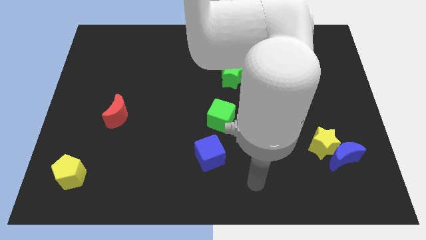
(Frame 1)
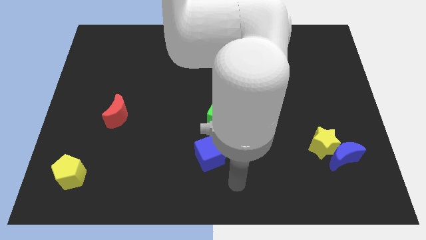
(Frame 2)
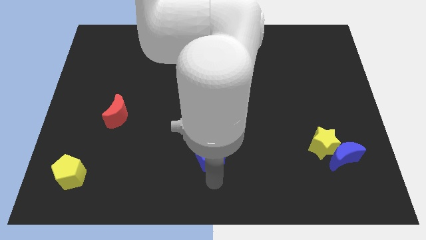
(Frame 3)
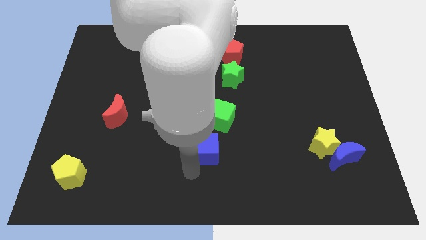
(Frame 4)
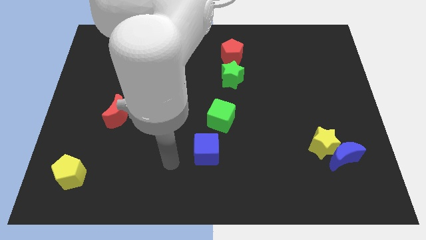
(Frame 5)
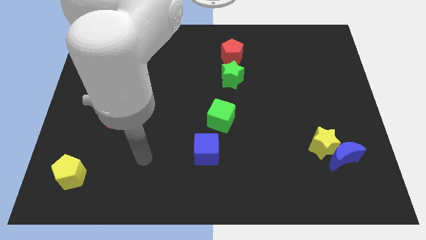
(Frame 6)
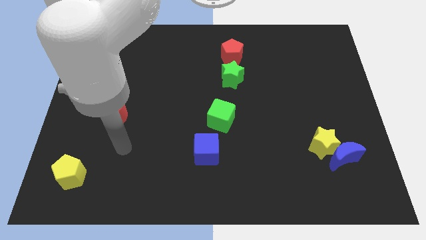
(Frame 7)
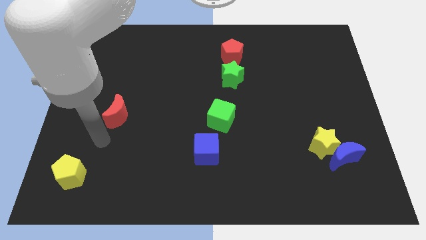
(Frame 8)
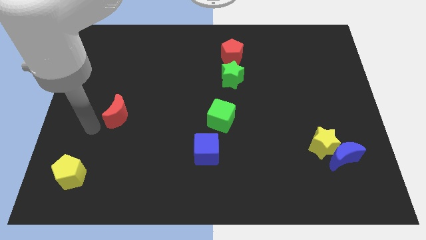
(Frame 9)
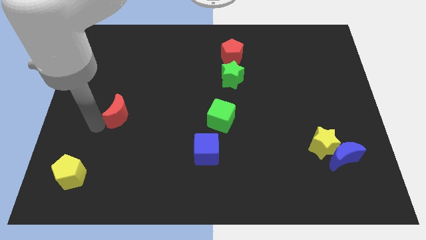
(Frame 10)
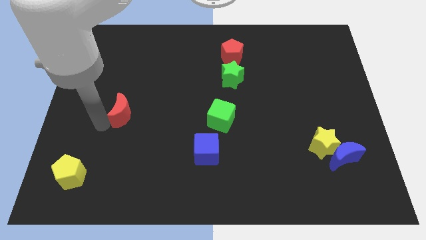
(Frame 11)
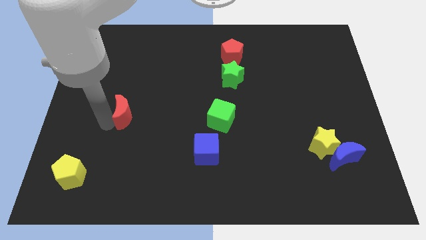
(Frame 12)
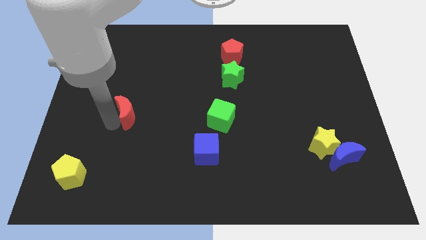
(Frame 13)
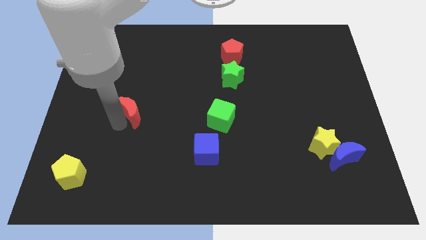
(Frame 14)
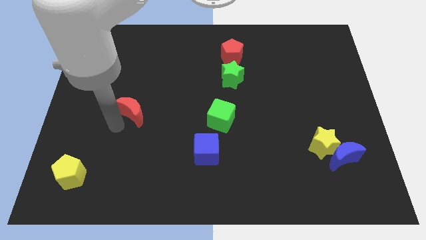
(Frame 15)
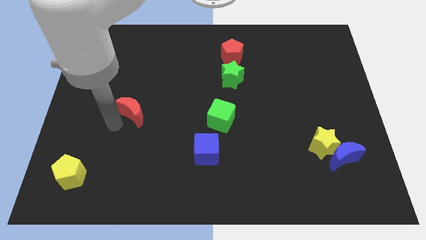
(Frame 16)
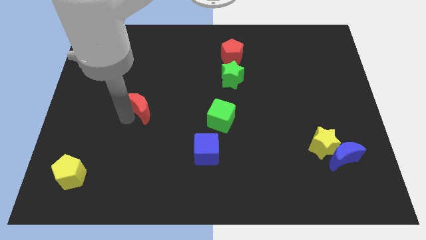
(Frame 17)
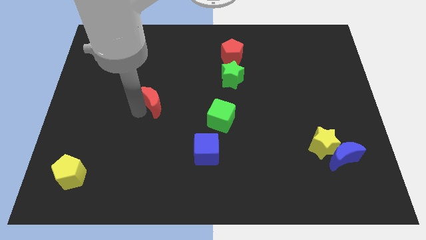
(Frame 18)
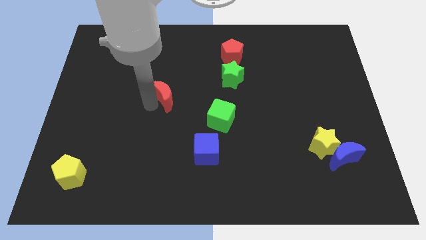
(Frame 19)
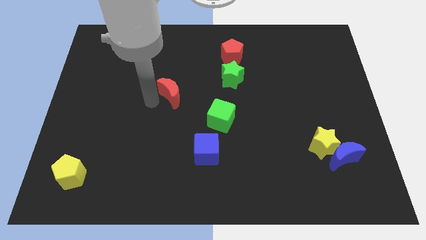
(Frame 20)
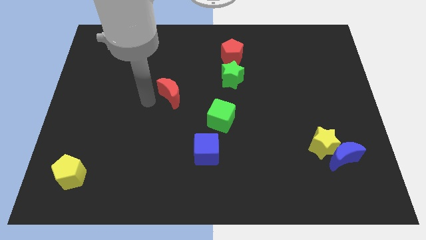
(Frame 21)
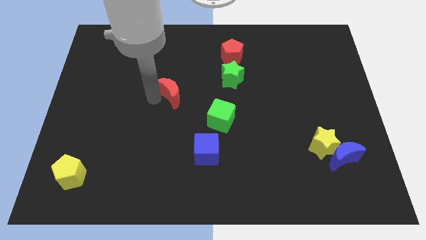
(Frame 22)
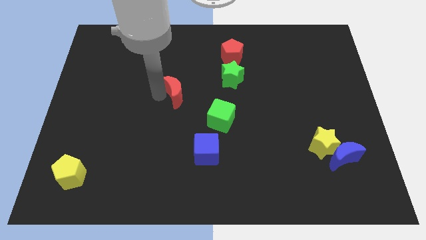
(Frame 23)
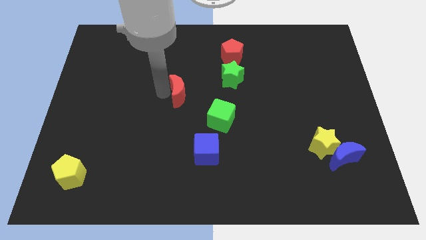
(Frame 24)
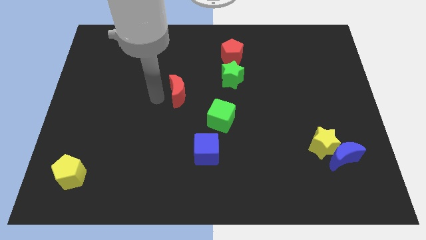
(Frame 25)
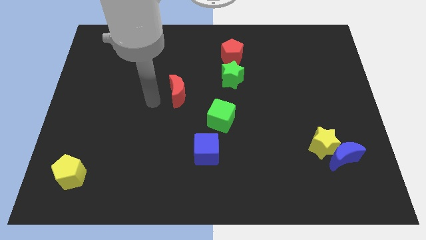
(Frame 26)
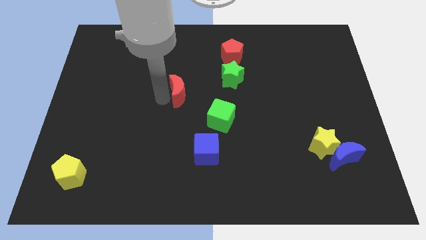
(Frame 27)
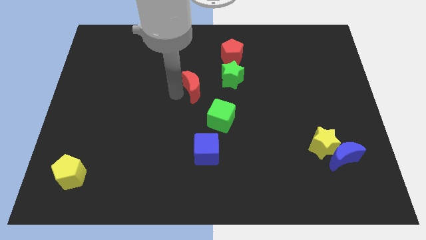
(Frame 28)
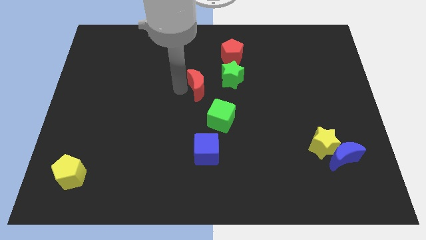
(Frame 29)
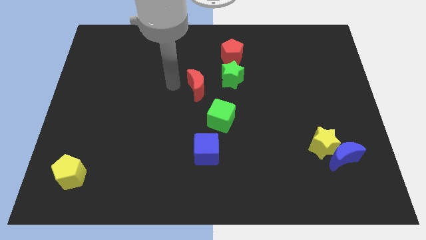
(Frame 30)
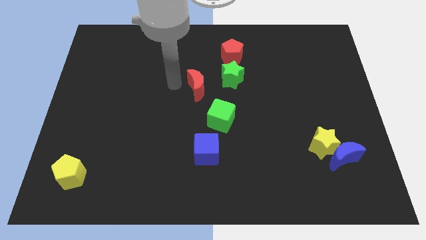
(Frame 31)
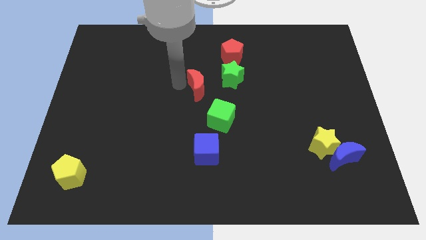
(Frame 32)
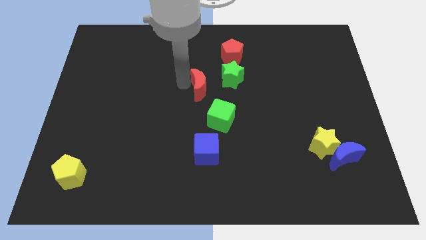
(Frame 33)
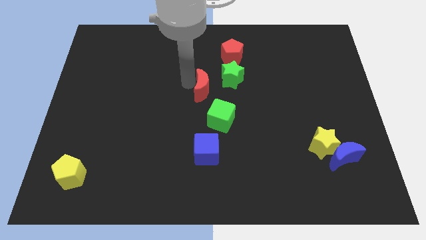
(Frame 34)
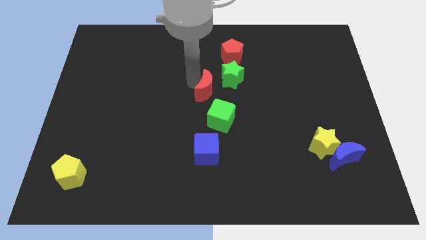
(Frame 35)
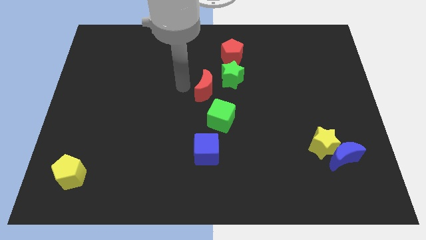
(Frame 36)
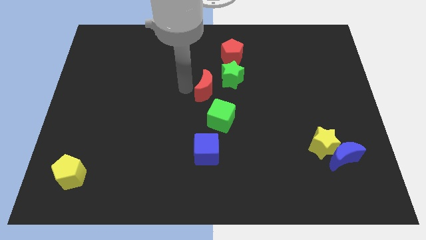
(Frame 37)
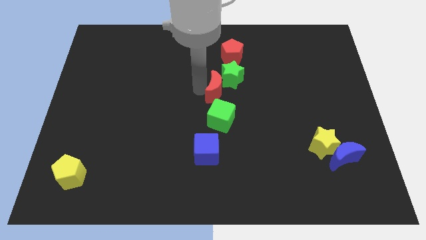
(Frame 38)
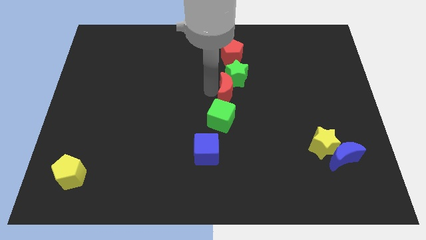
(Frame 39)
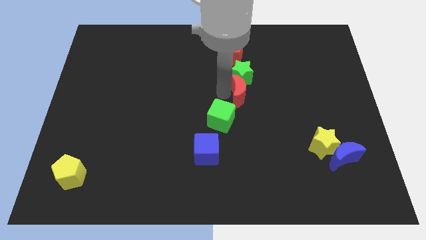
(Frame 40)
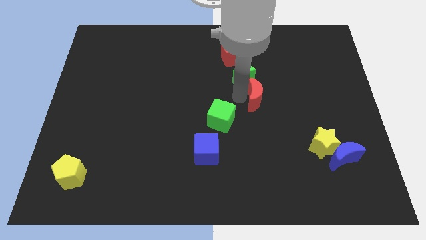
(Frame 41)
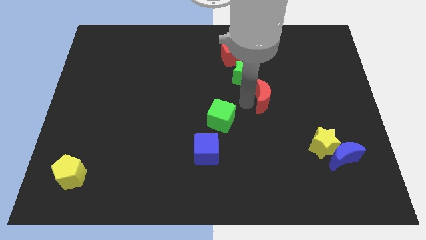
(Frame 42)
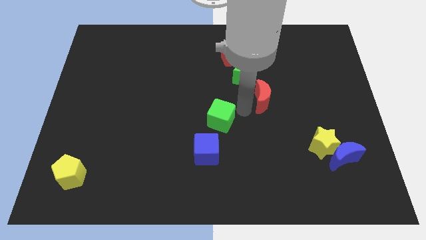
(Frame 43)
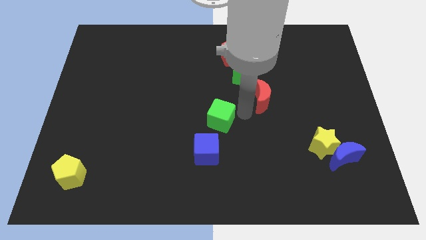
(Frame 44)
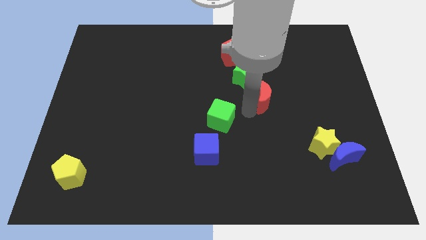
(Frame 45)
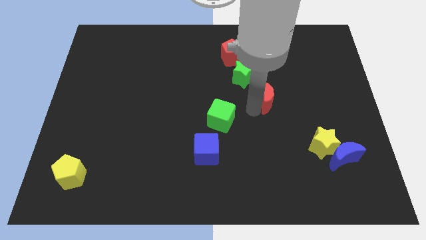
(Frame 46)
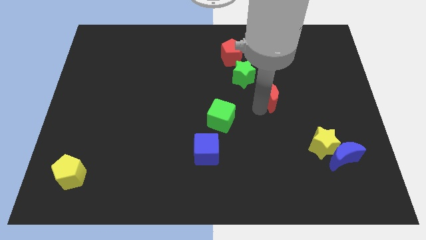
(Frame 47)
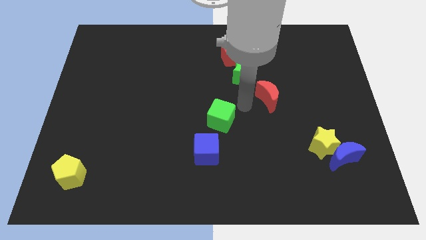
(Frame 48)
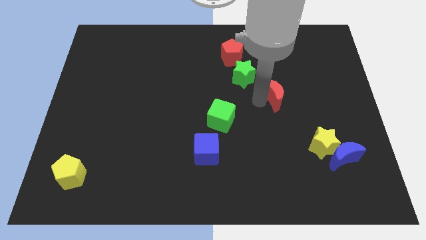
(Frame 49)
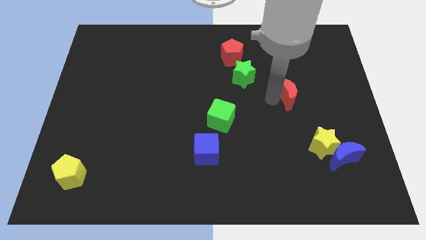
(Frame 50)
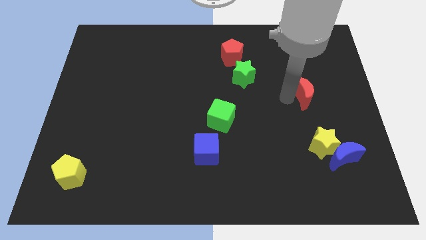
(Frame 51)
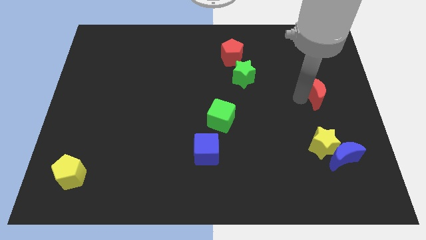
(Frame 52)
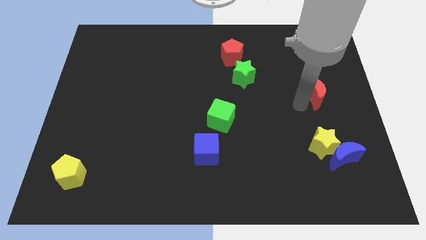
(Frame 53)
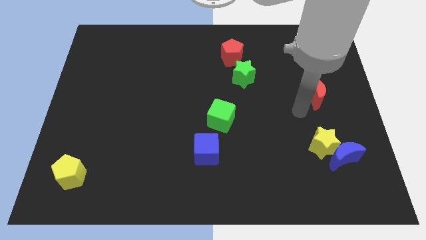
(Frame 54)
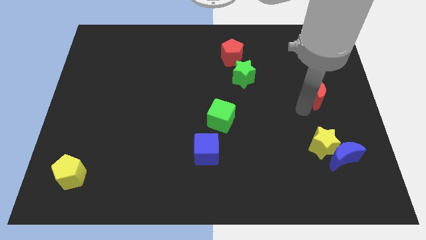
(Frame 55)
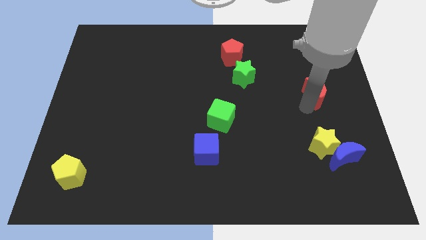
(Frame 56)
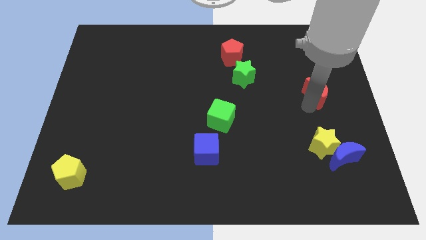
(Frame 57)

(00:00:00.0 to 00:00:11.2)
put the red moon to the right side
